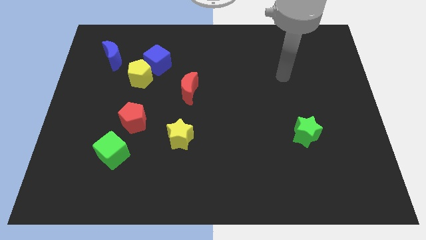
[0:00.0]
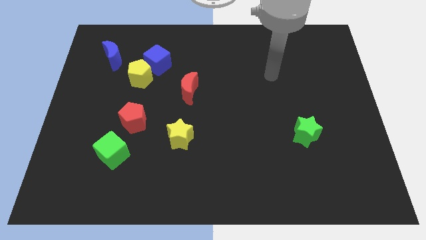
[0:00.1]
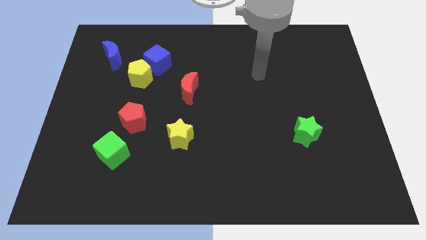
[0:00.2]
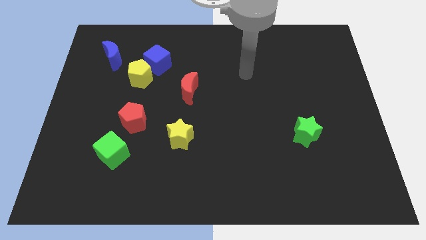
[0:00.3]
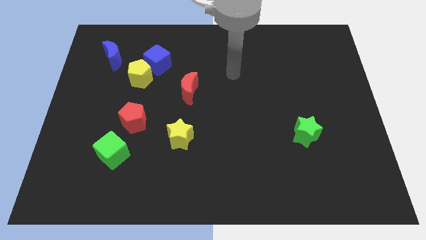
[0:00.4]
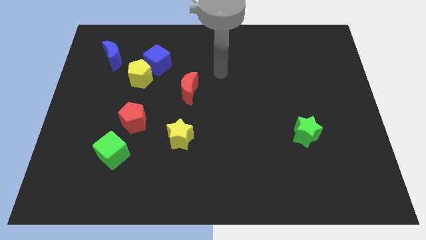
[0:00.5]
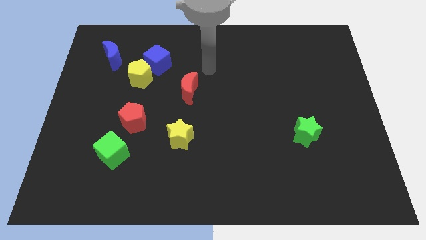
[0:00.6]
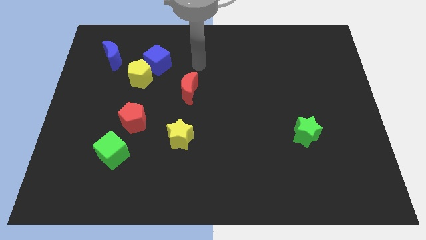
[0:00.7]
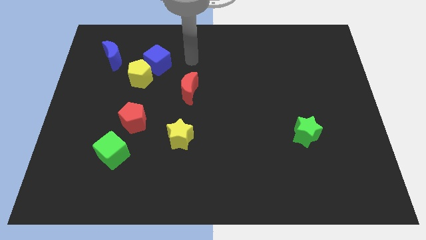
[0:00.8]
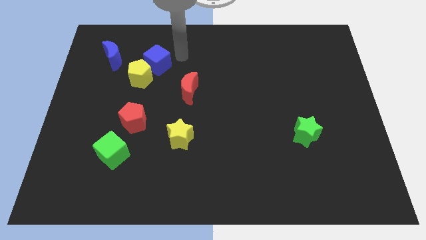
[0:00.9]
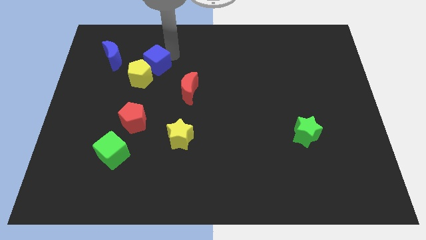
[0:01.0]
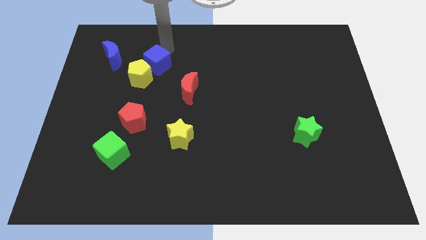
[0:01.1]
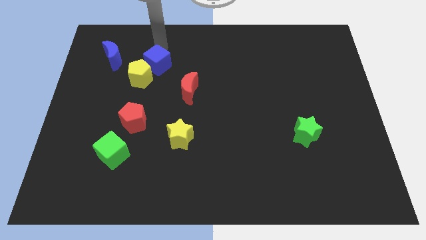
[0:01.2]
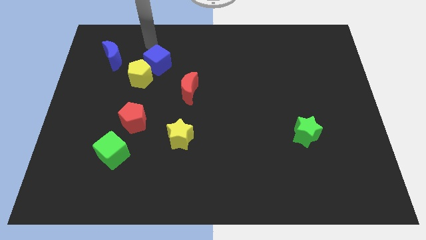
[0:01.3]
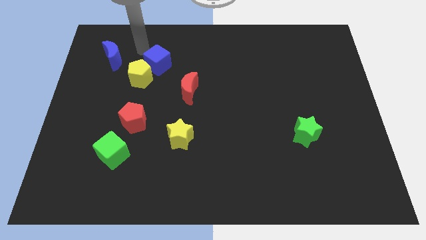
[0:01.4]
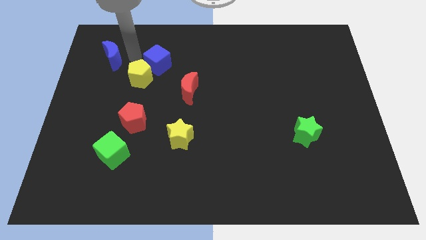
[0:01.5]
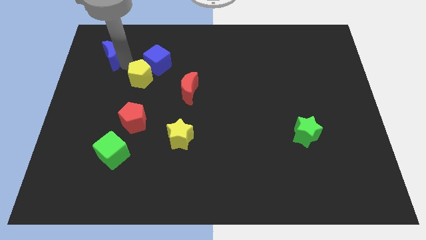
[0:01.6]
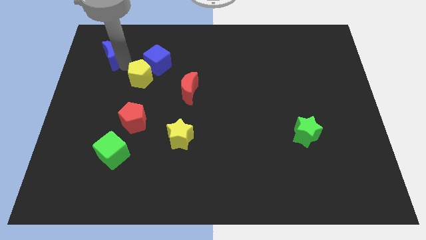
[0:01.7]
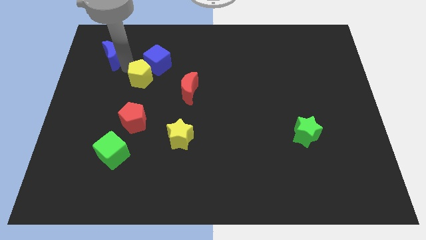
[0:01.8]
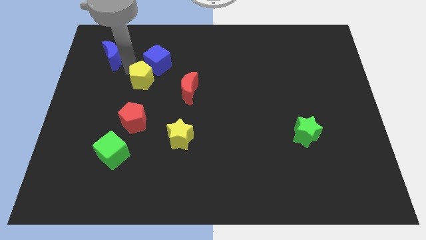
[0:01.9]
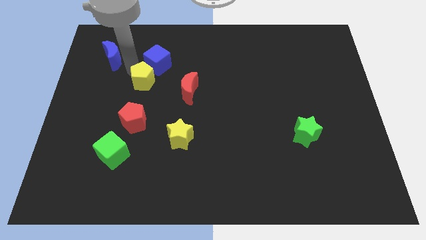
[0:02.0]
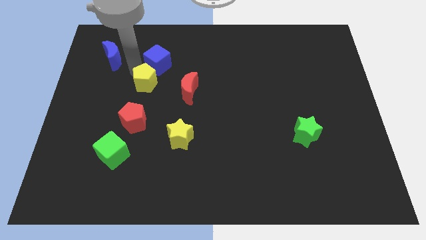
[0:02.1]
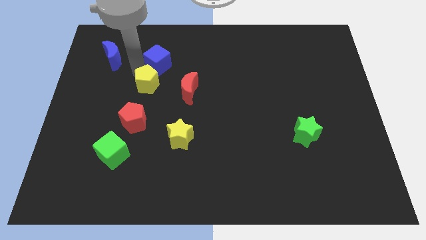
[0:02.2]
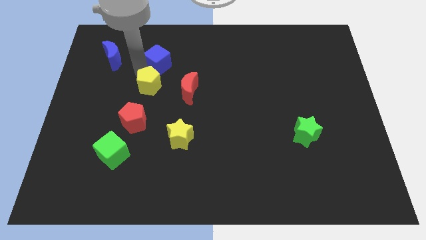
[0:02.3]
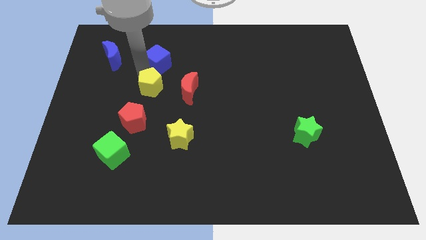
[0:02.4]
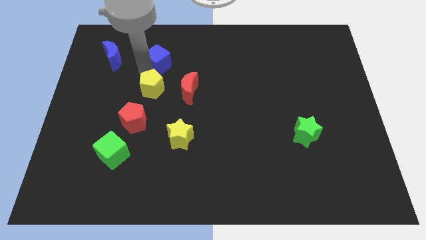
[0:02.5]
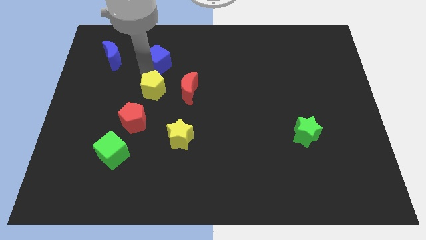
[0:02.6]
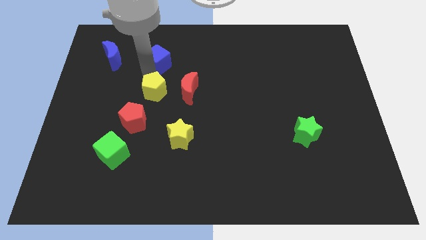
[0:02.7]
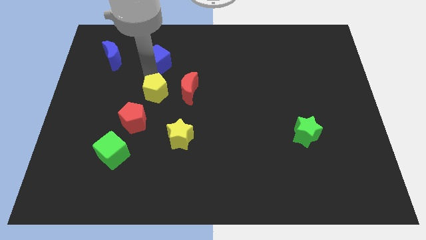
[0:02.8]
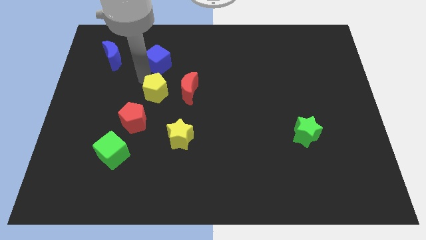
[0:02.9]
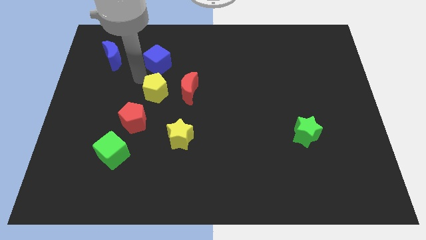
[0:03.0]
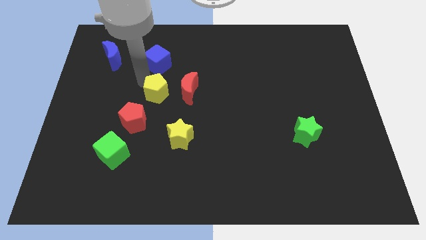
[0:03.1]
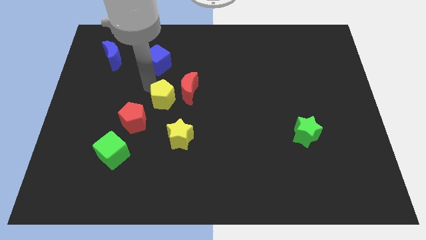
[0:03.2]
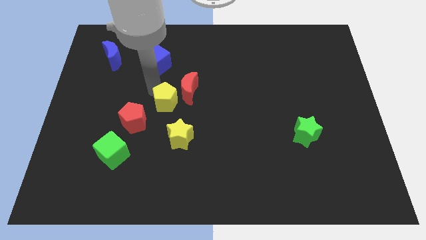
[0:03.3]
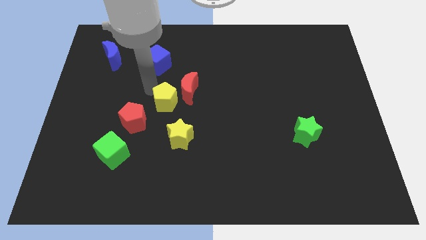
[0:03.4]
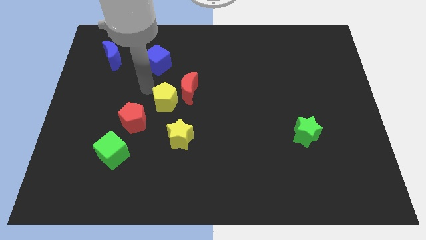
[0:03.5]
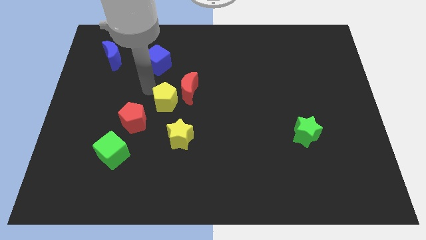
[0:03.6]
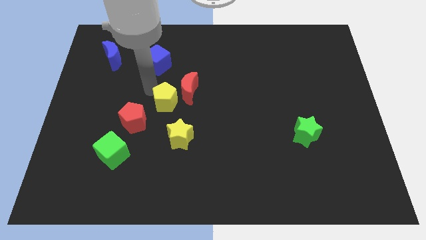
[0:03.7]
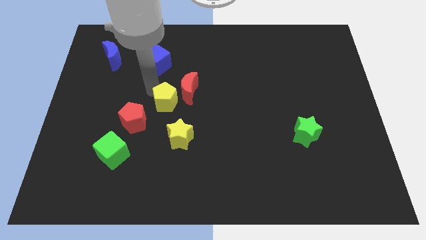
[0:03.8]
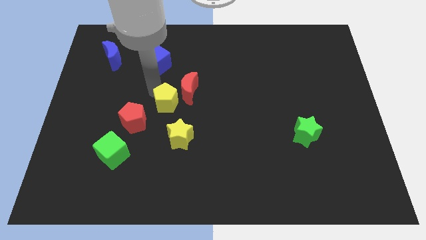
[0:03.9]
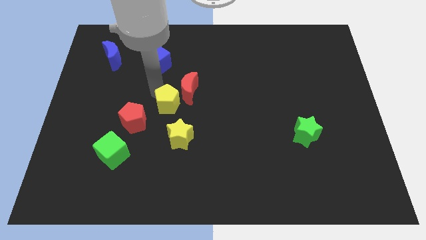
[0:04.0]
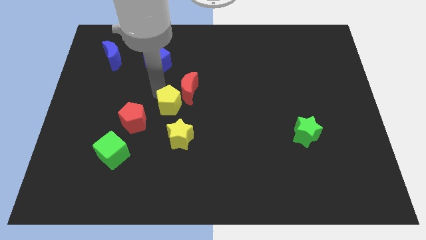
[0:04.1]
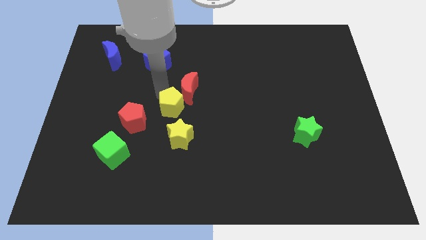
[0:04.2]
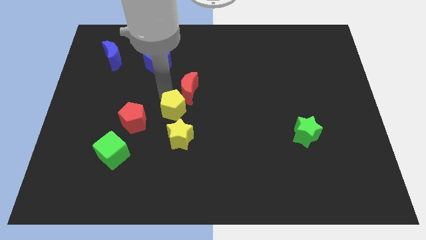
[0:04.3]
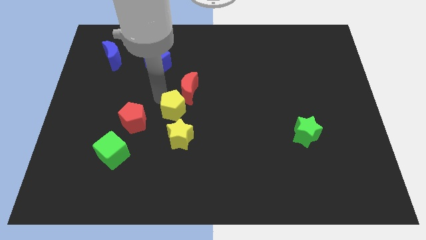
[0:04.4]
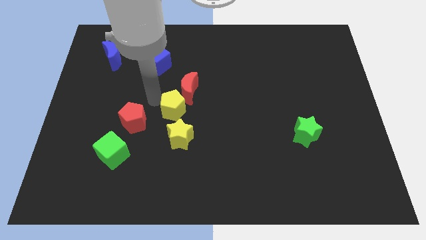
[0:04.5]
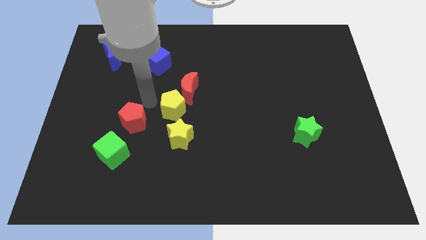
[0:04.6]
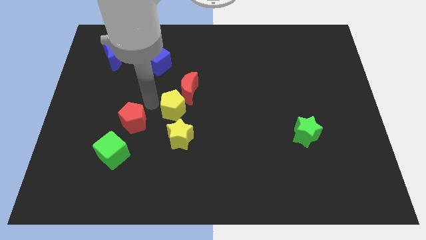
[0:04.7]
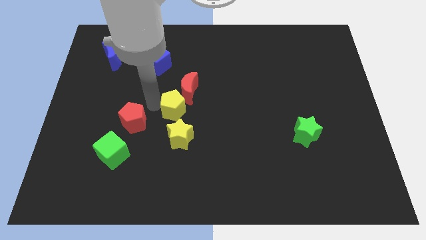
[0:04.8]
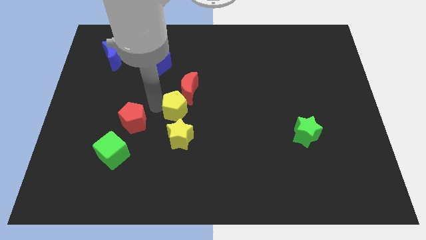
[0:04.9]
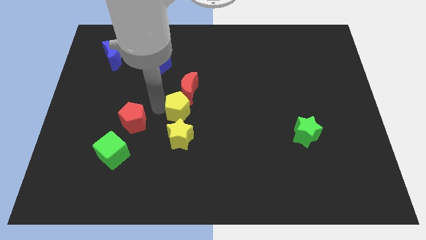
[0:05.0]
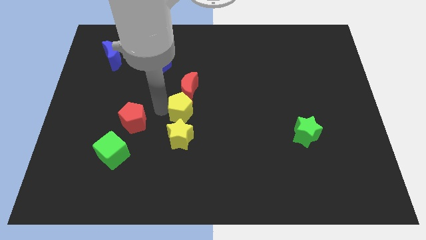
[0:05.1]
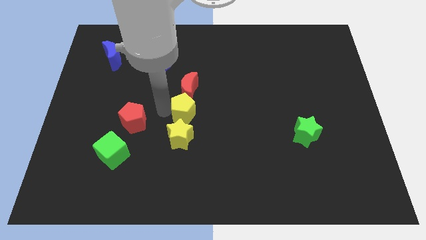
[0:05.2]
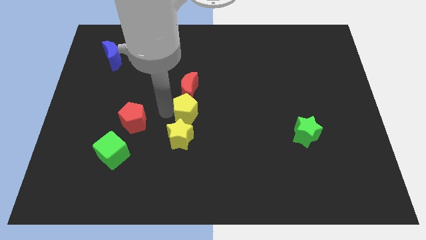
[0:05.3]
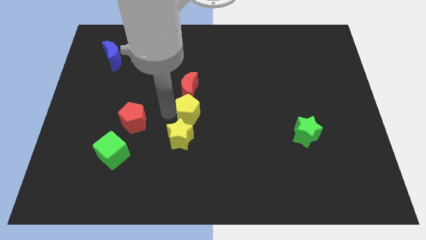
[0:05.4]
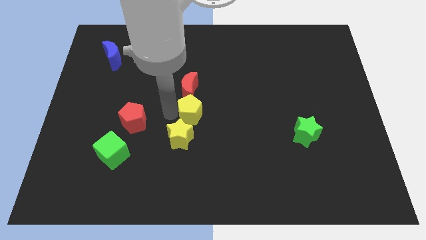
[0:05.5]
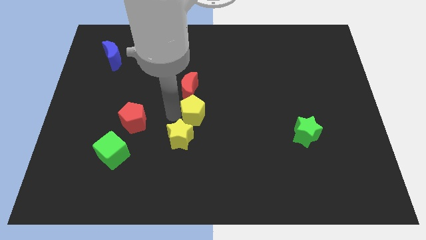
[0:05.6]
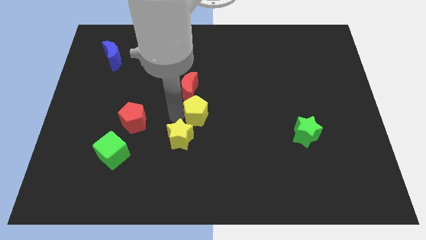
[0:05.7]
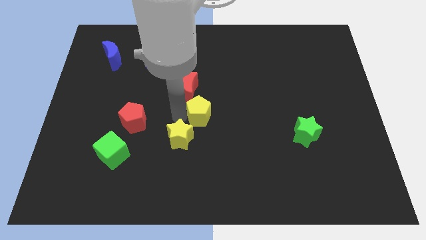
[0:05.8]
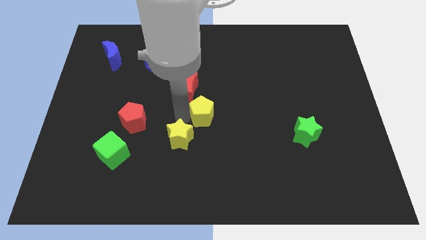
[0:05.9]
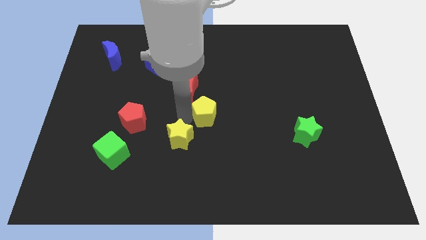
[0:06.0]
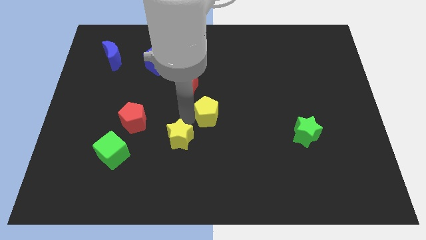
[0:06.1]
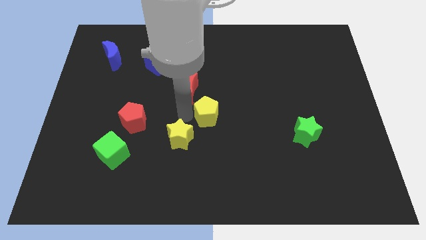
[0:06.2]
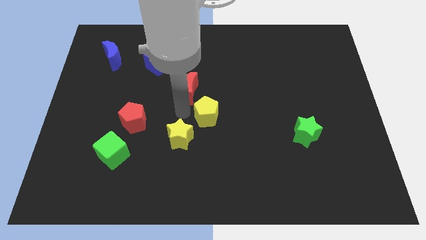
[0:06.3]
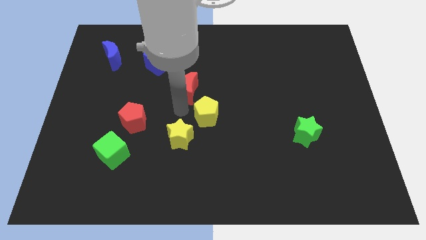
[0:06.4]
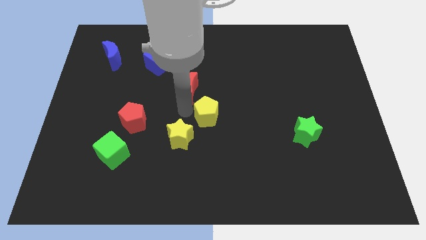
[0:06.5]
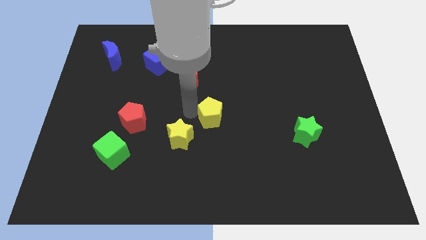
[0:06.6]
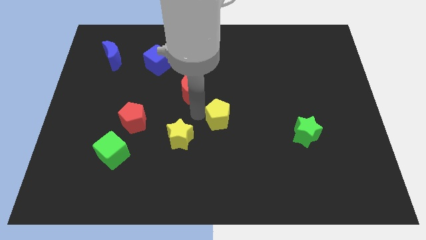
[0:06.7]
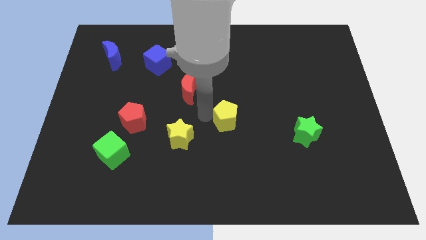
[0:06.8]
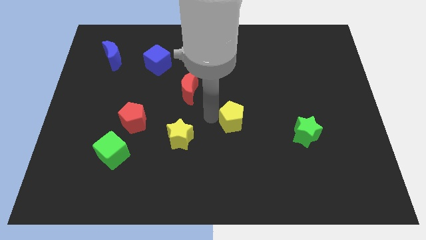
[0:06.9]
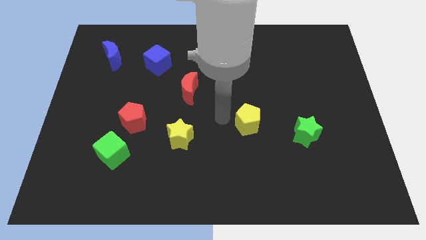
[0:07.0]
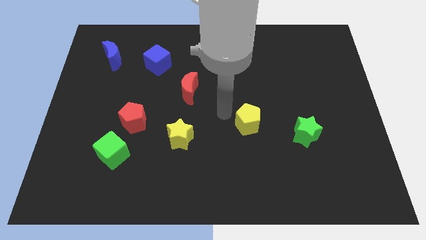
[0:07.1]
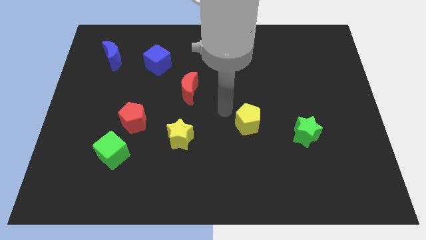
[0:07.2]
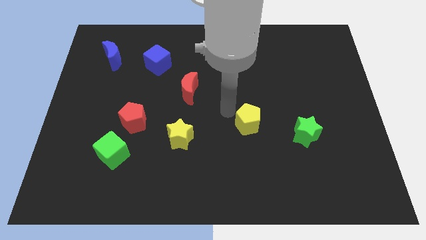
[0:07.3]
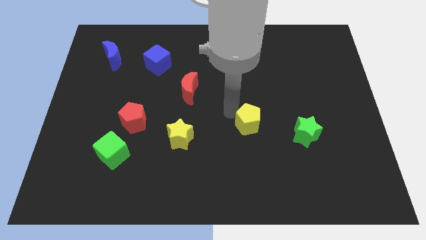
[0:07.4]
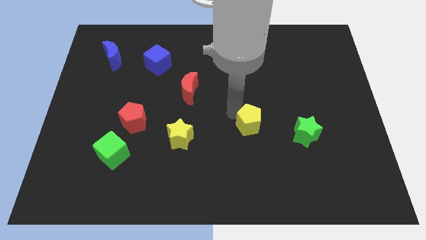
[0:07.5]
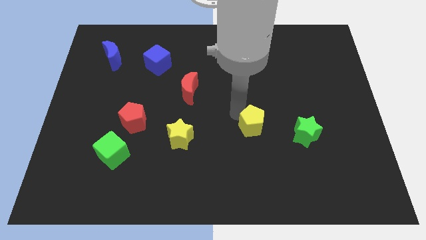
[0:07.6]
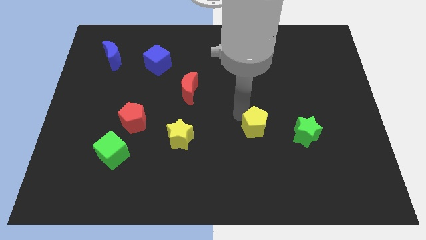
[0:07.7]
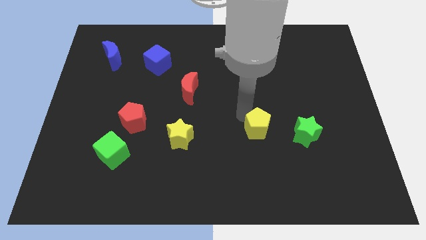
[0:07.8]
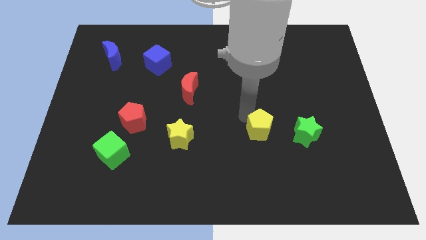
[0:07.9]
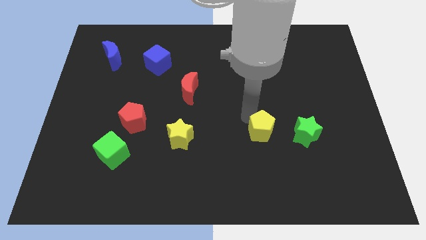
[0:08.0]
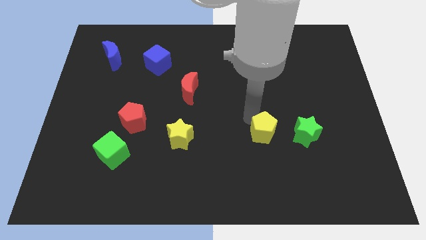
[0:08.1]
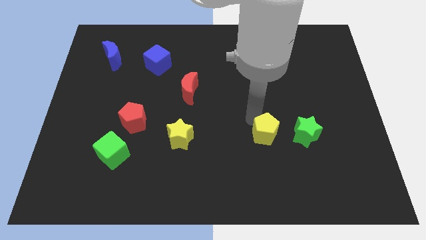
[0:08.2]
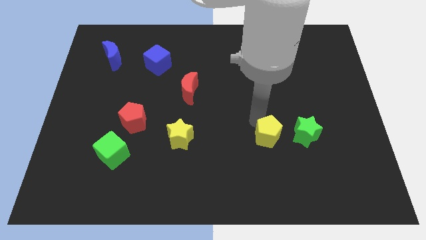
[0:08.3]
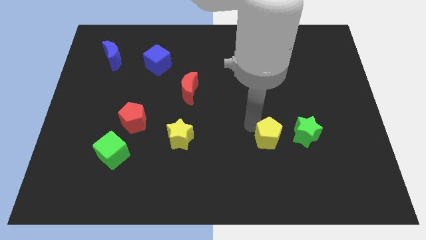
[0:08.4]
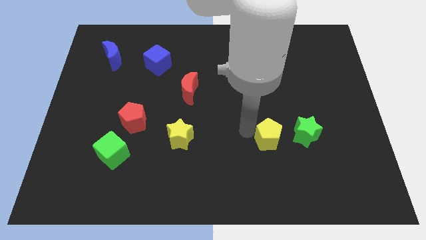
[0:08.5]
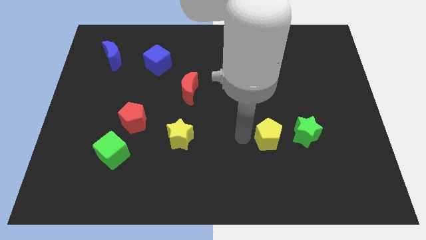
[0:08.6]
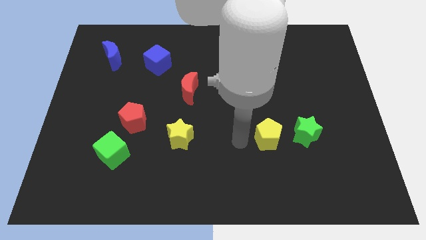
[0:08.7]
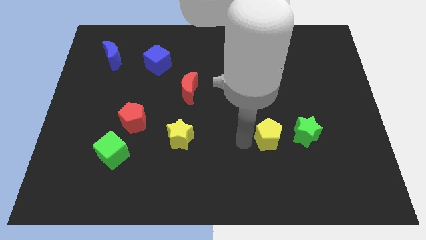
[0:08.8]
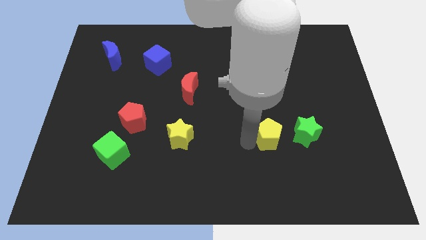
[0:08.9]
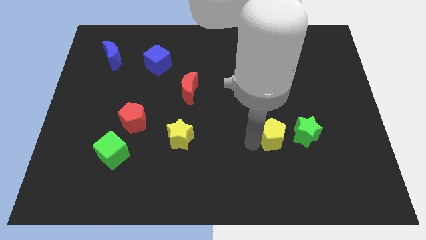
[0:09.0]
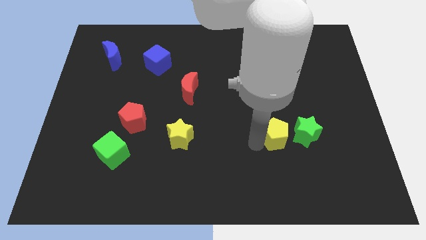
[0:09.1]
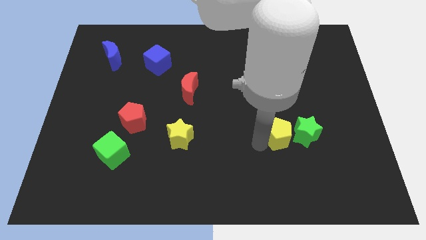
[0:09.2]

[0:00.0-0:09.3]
slide the yellow pentagon to the green star
